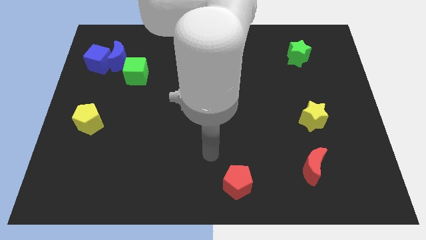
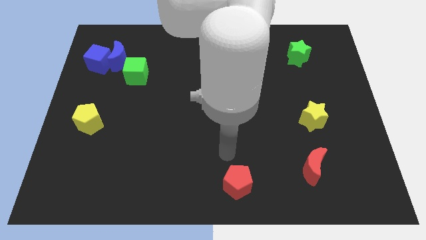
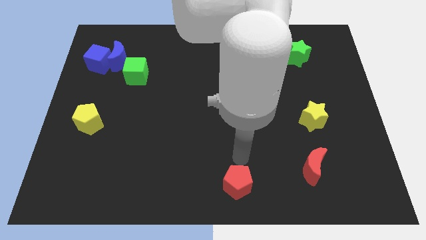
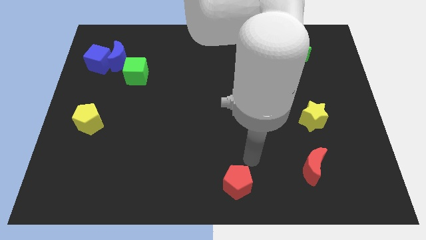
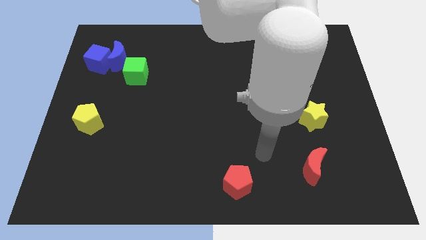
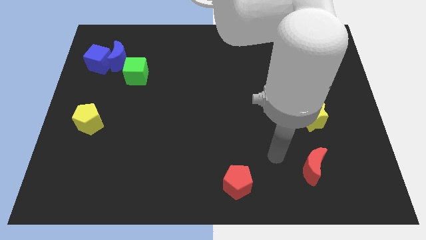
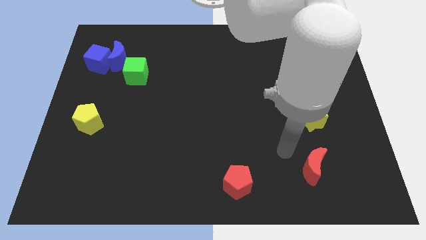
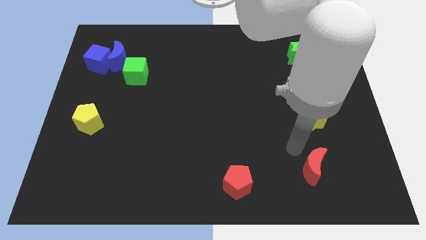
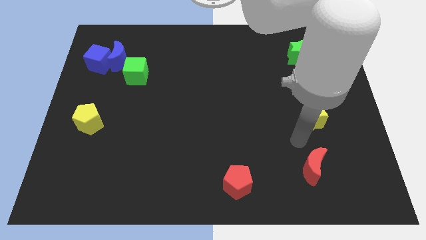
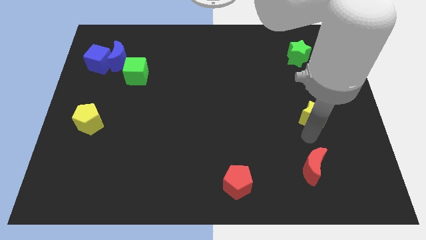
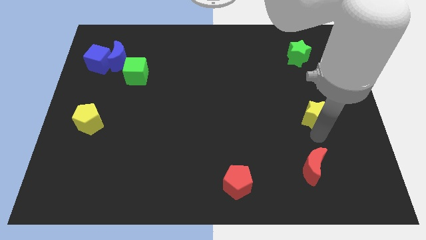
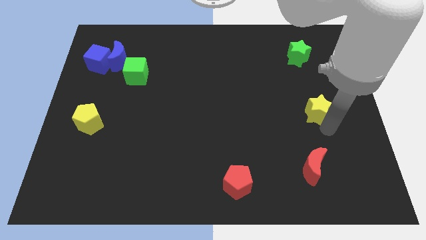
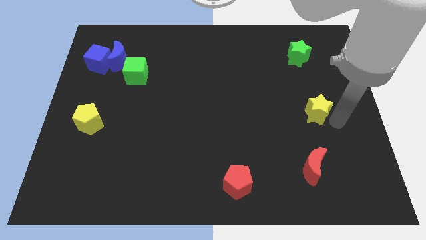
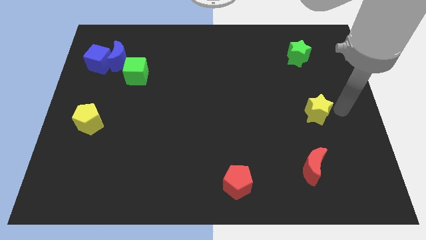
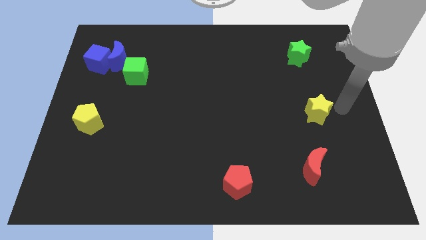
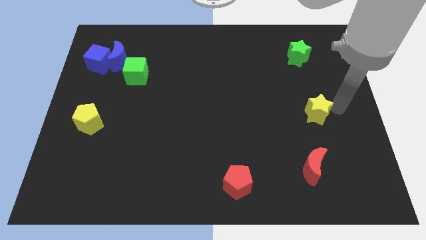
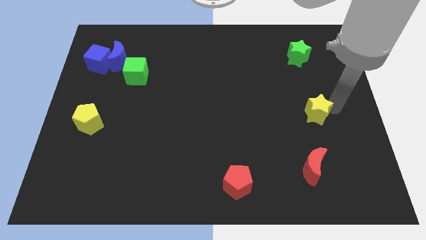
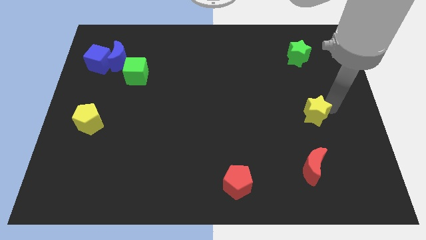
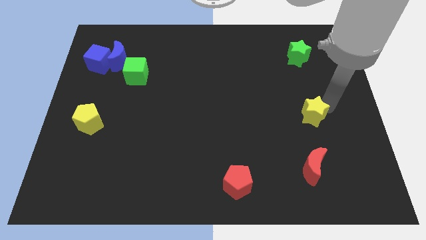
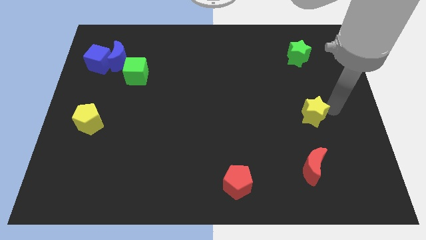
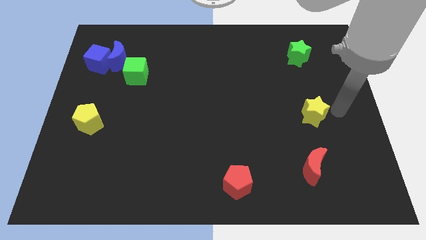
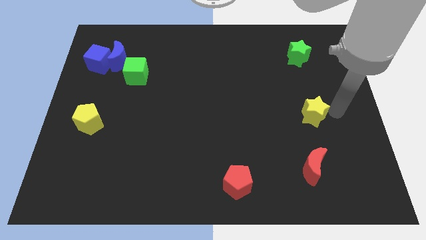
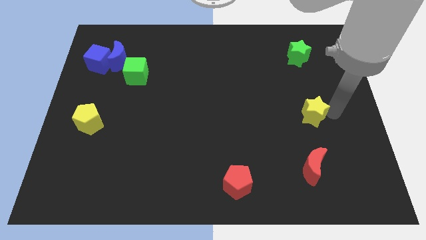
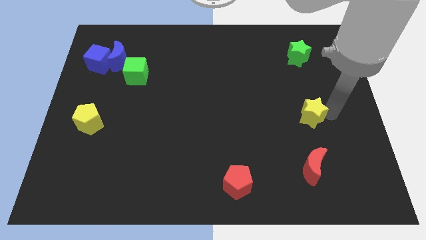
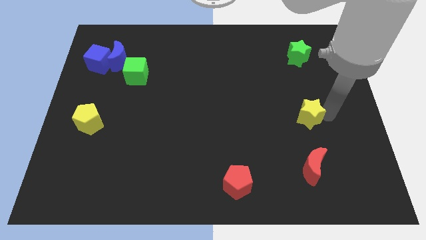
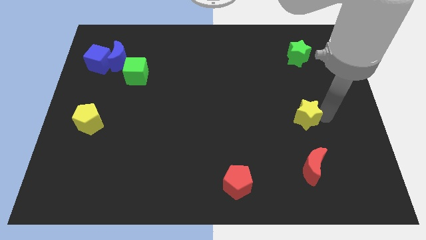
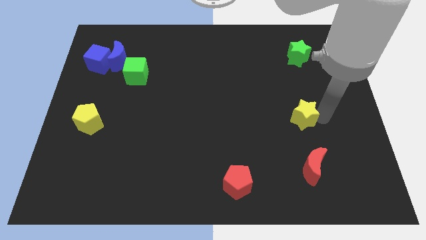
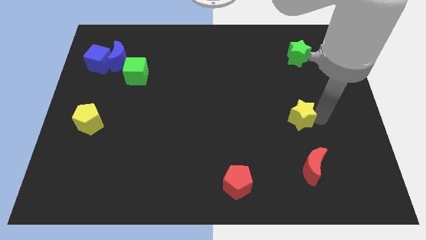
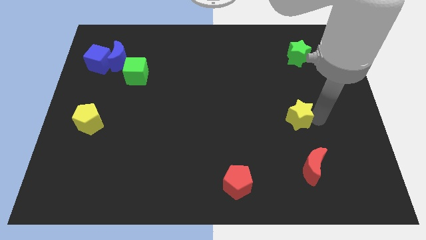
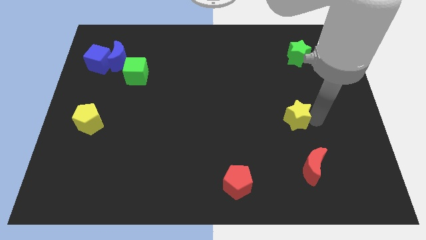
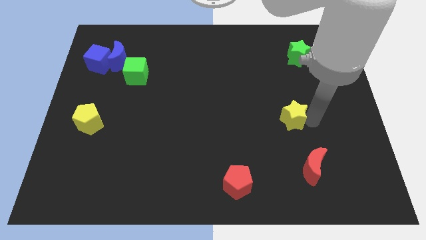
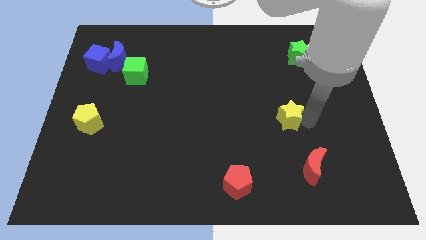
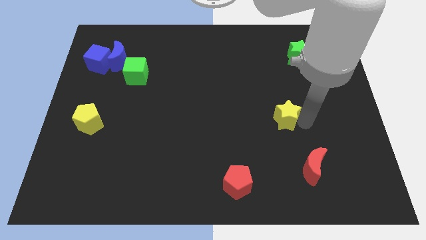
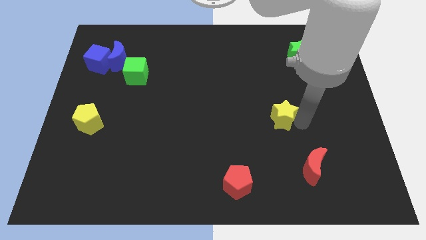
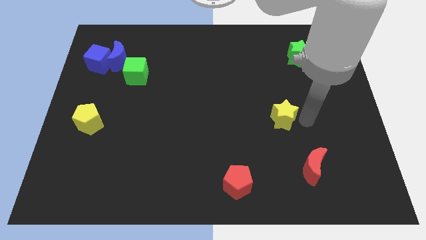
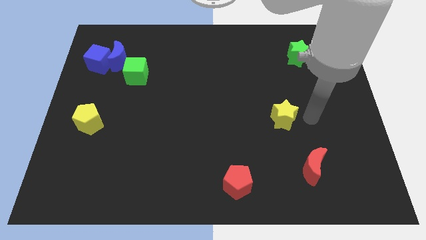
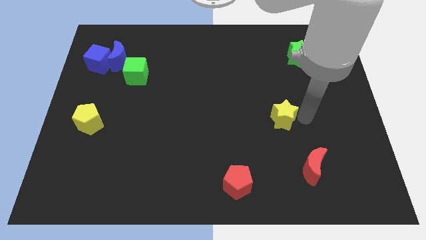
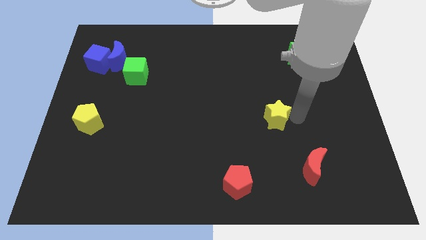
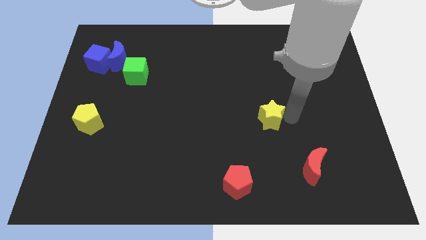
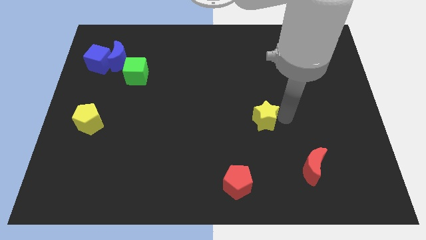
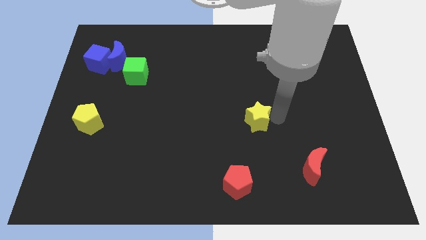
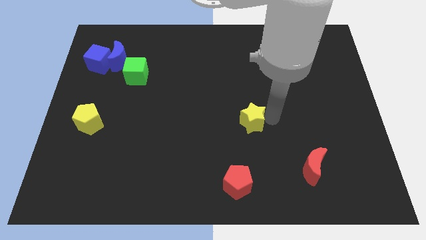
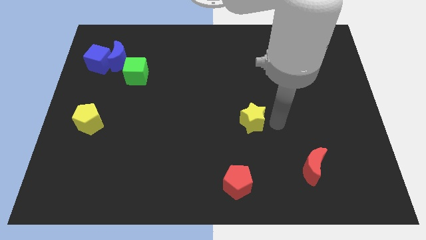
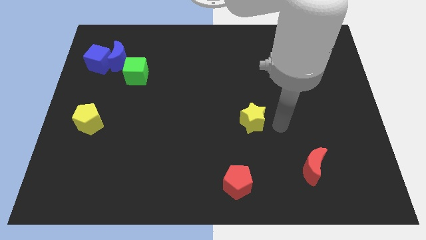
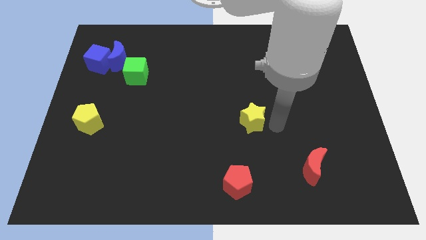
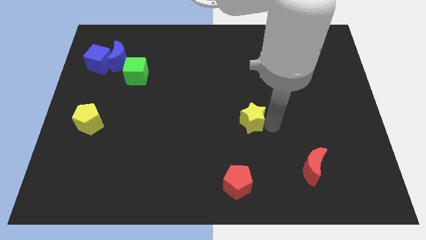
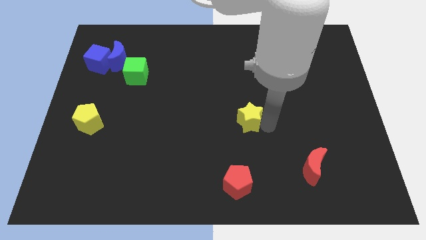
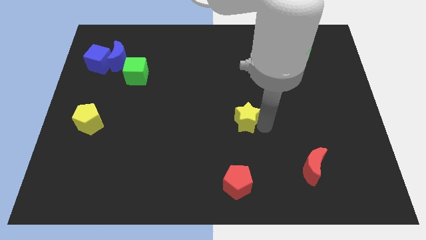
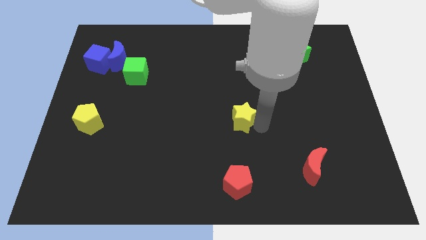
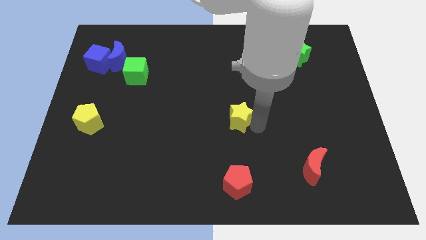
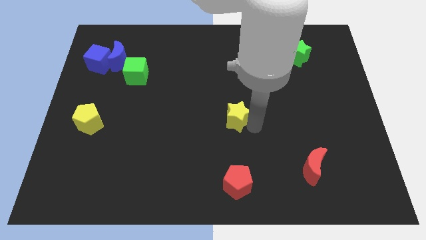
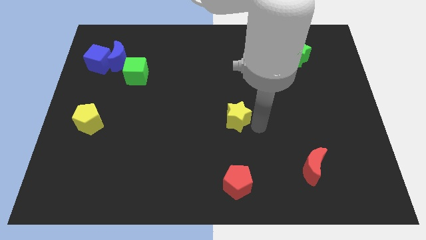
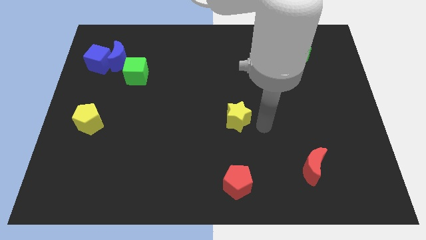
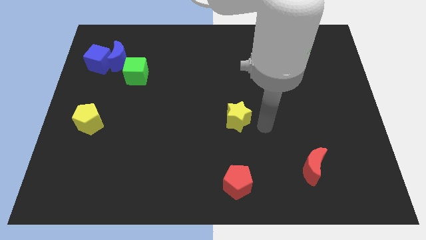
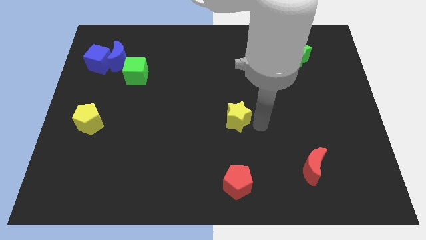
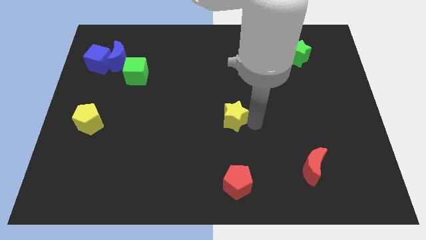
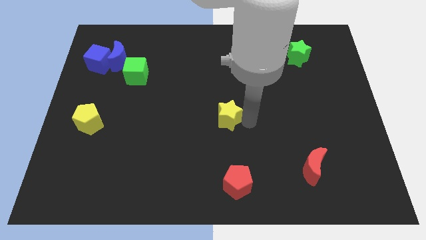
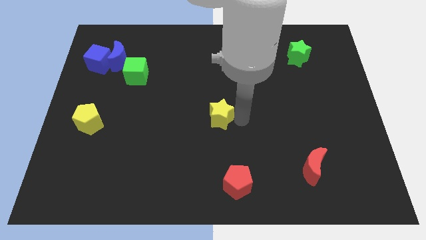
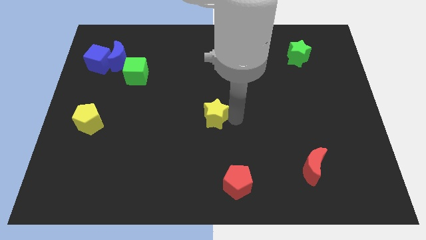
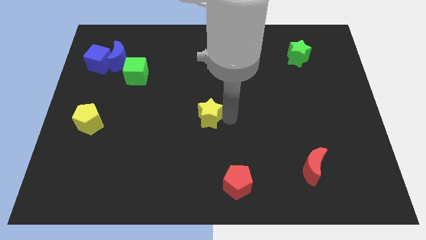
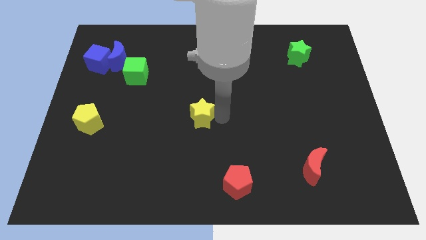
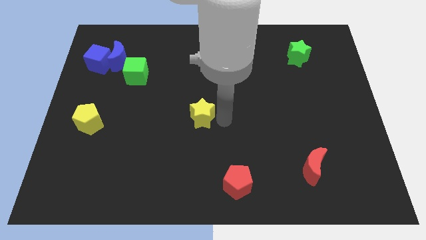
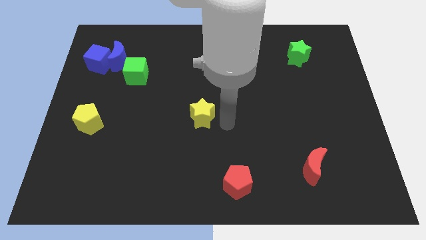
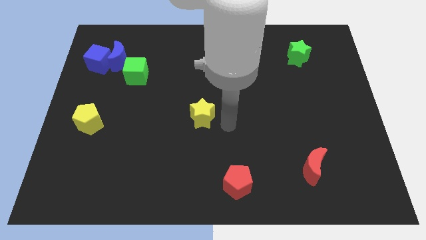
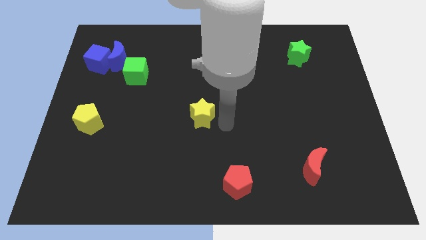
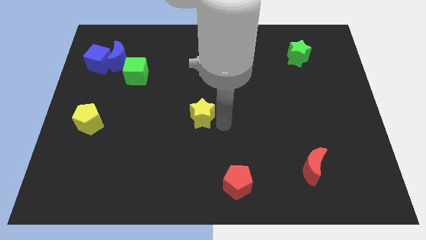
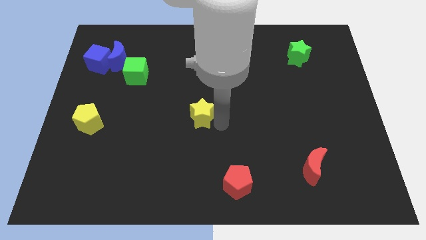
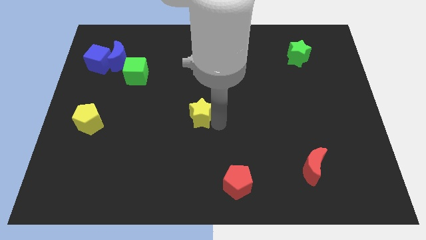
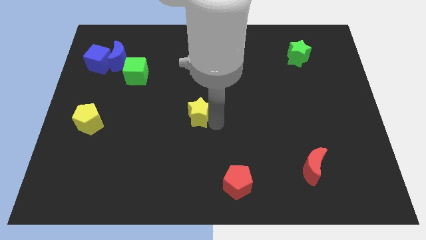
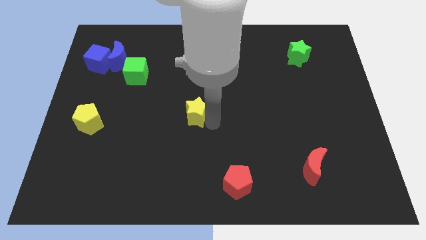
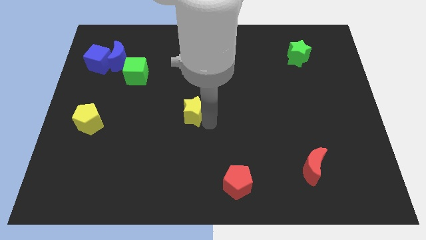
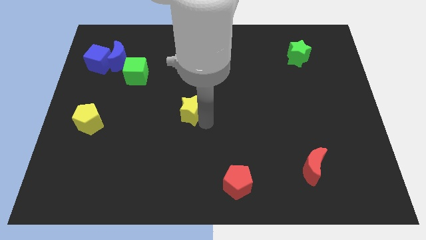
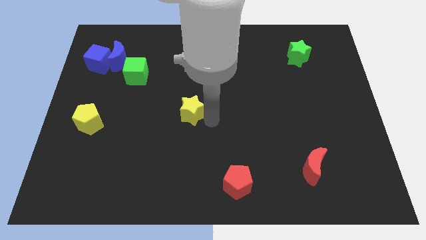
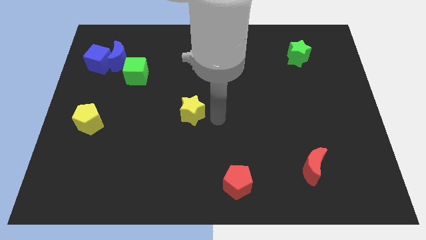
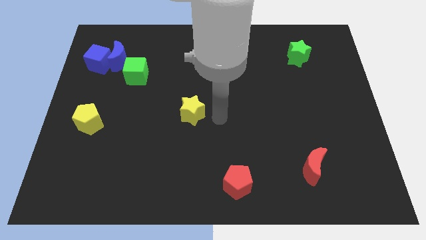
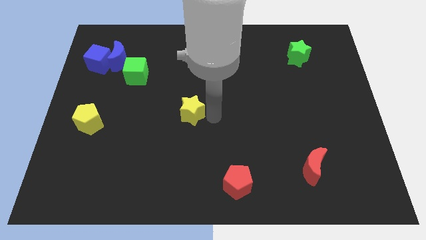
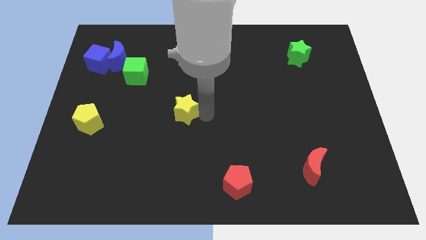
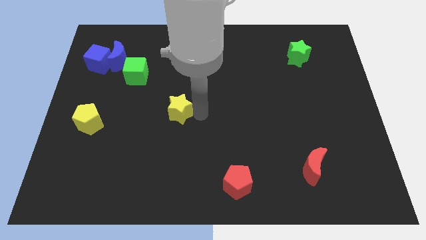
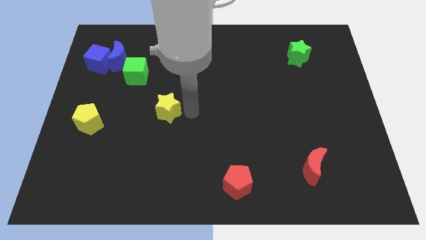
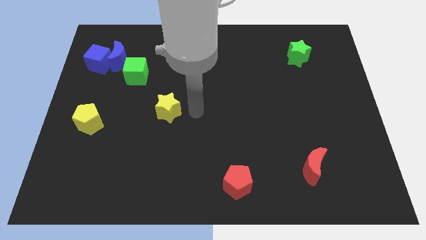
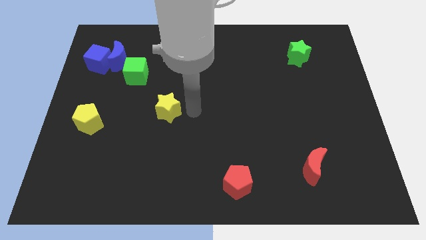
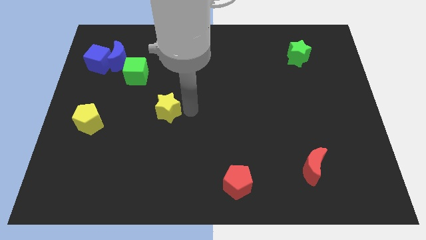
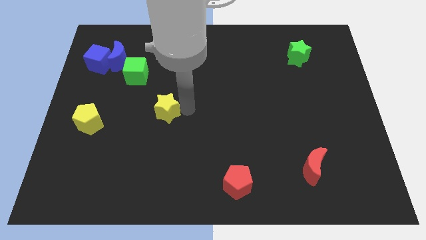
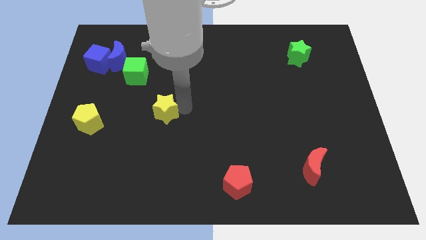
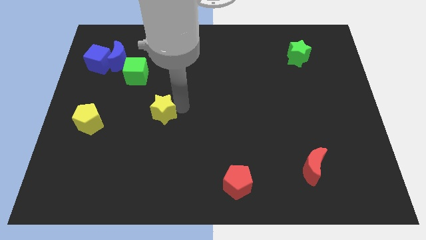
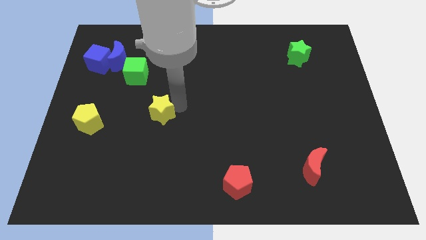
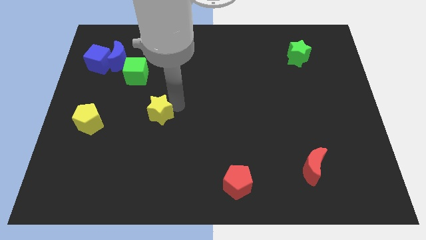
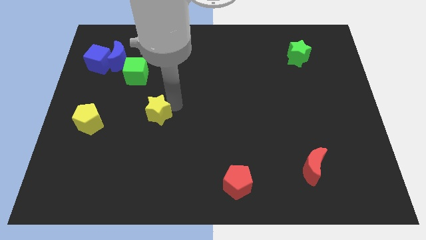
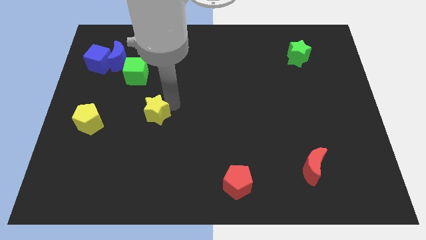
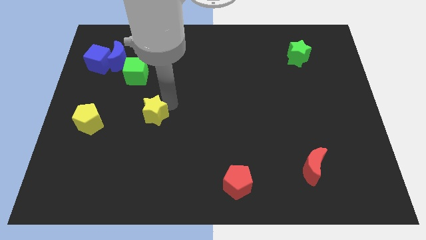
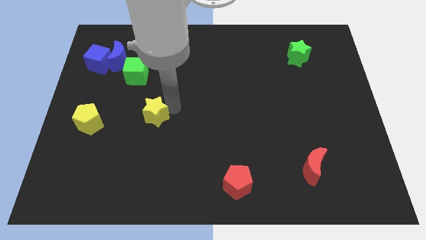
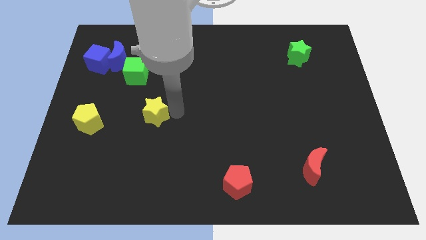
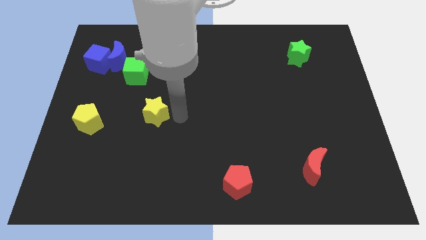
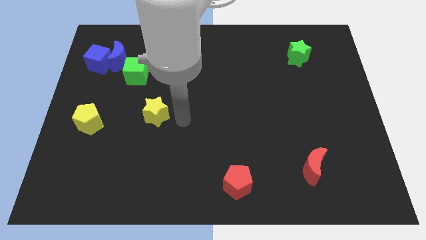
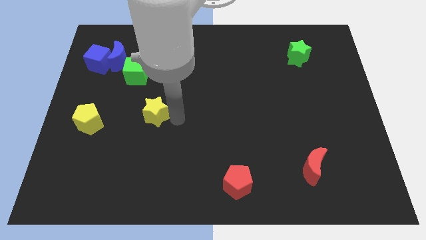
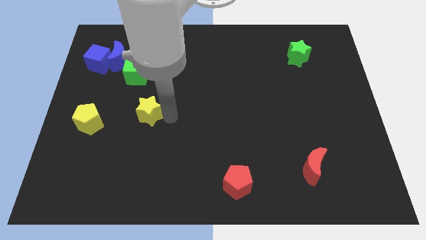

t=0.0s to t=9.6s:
put the yellow star below the green cube
